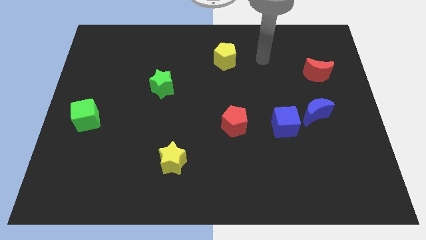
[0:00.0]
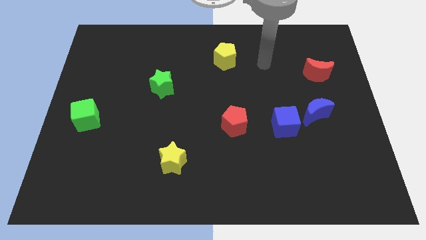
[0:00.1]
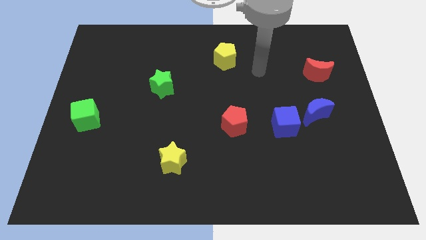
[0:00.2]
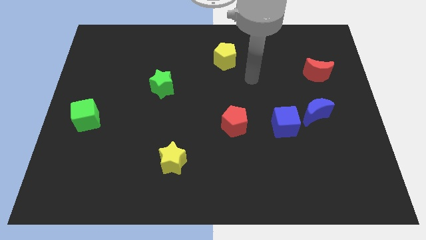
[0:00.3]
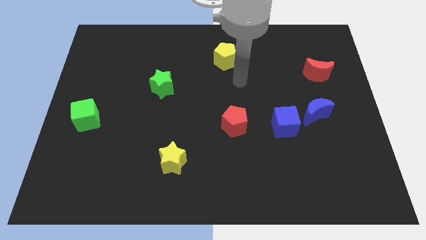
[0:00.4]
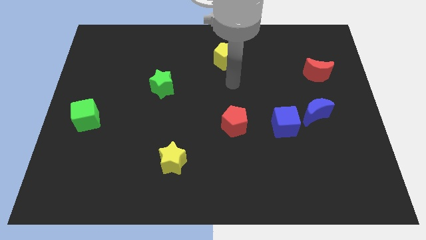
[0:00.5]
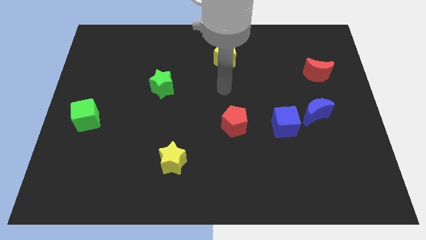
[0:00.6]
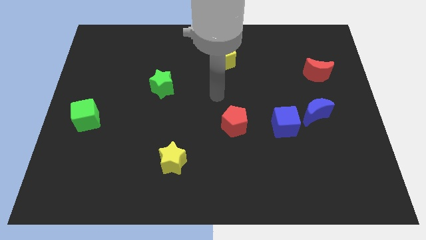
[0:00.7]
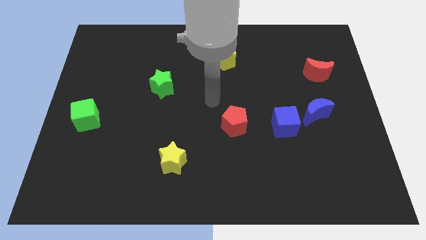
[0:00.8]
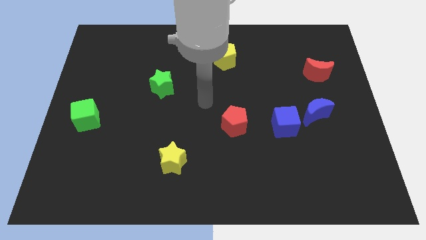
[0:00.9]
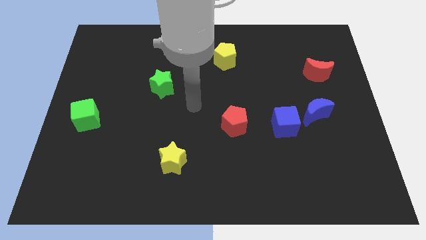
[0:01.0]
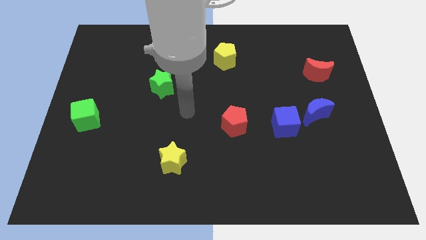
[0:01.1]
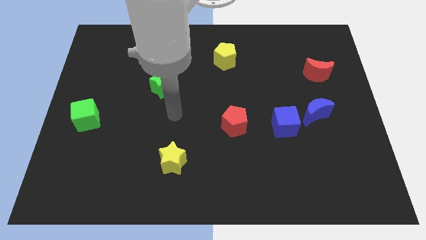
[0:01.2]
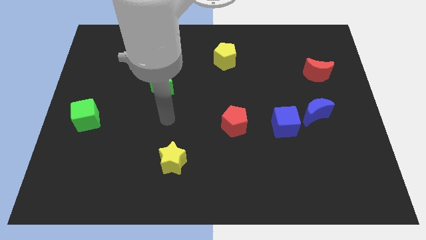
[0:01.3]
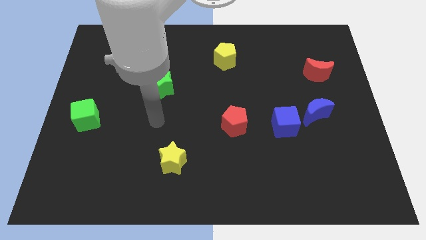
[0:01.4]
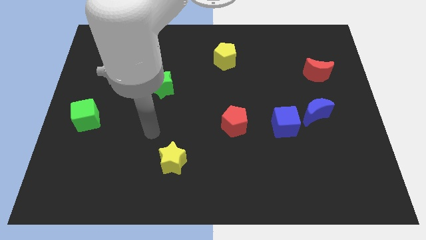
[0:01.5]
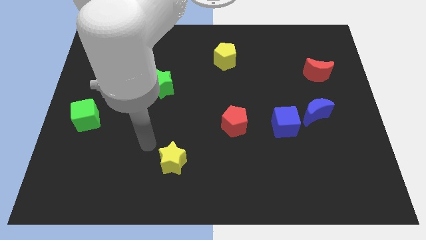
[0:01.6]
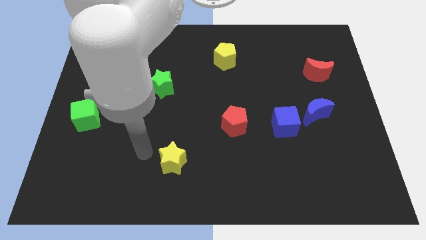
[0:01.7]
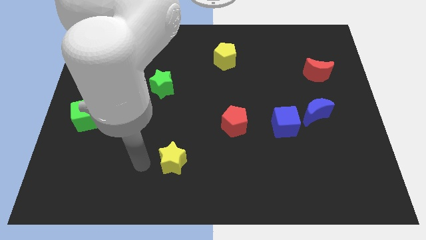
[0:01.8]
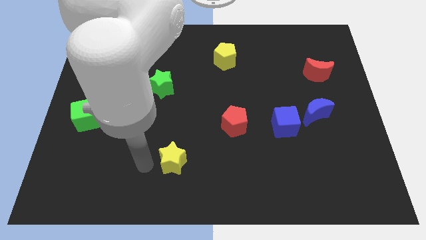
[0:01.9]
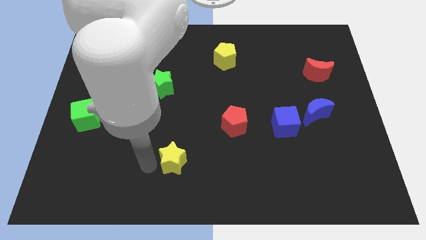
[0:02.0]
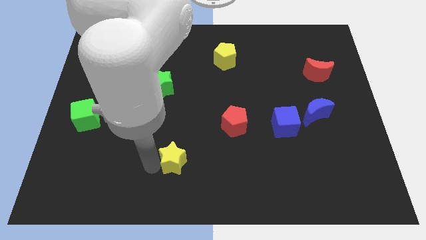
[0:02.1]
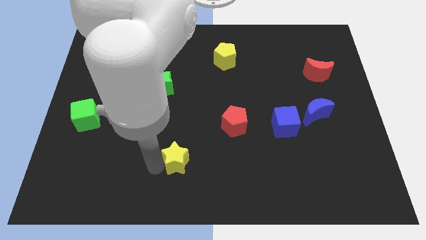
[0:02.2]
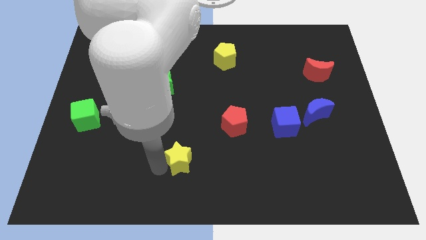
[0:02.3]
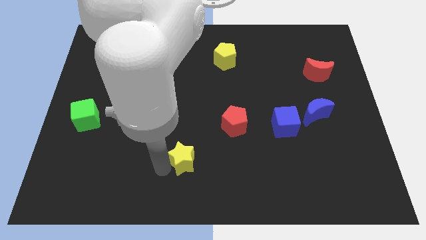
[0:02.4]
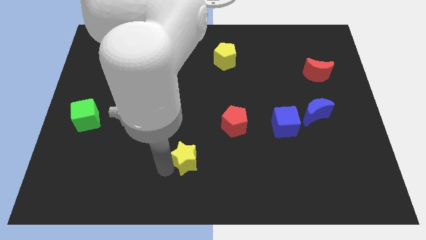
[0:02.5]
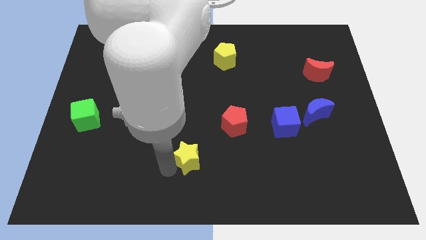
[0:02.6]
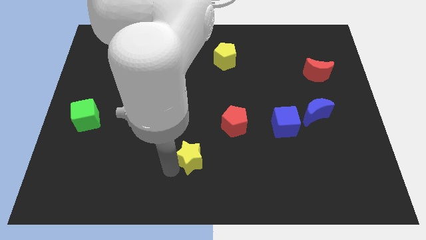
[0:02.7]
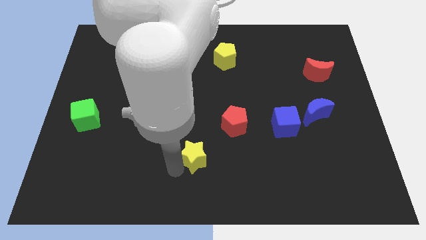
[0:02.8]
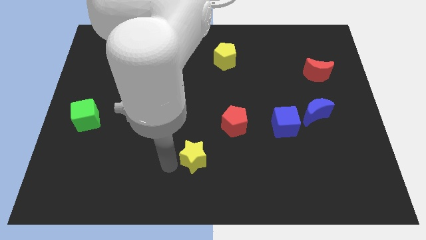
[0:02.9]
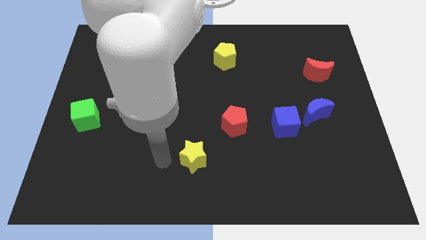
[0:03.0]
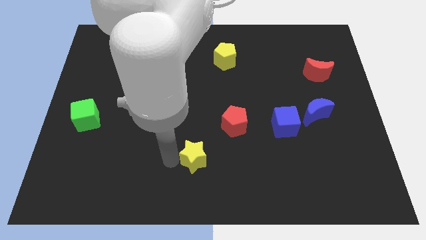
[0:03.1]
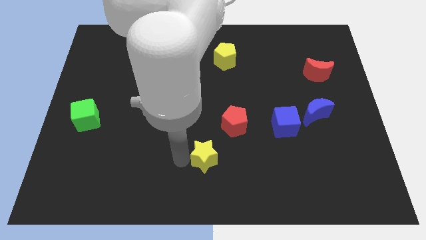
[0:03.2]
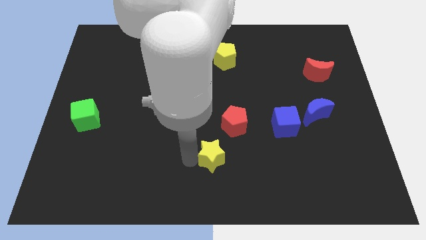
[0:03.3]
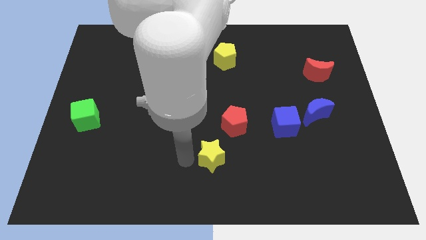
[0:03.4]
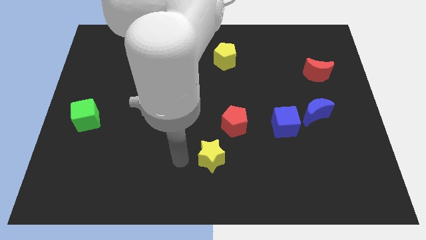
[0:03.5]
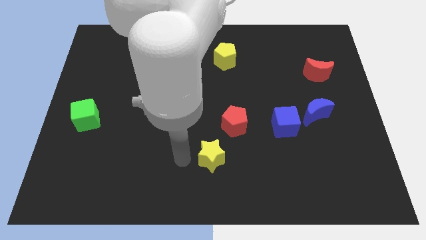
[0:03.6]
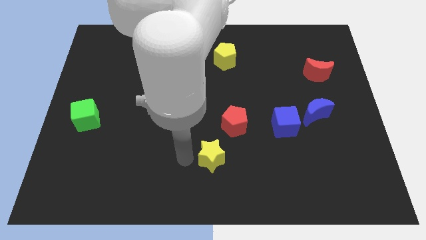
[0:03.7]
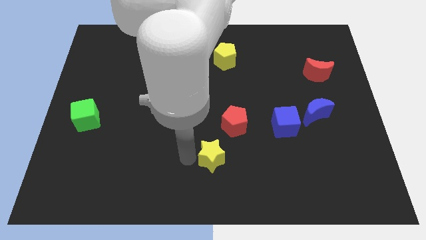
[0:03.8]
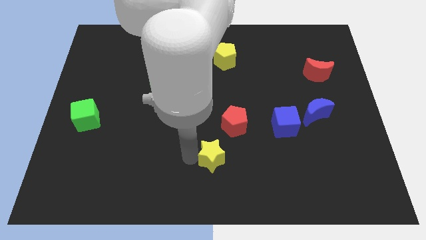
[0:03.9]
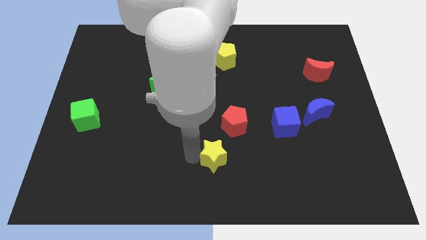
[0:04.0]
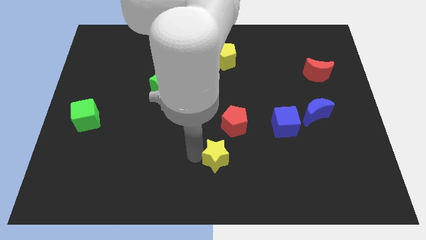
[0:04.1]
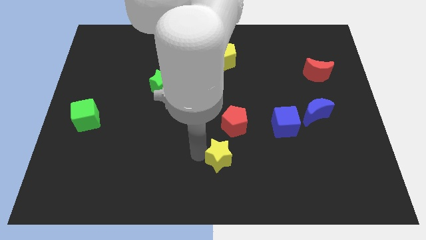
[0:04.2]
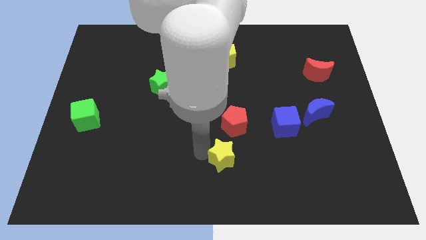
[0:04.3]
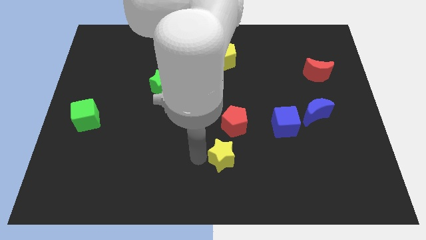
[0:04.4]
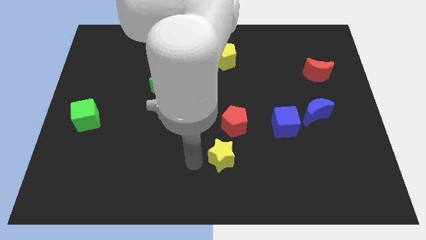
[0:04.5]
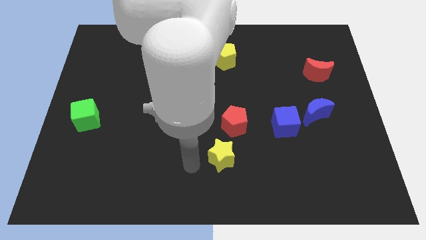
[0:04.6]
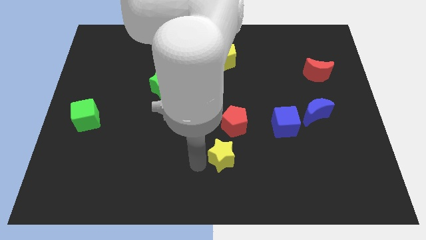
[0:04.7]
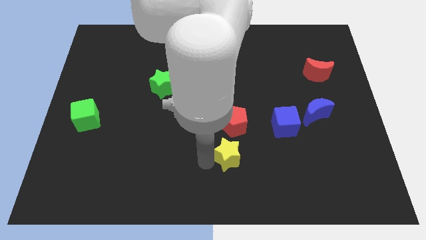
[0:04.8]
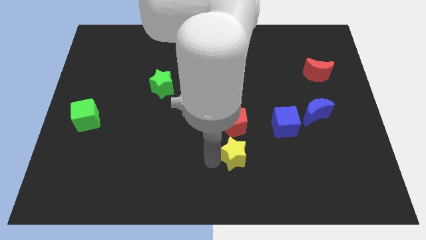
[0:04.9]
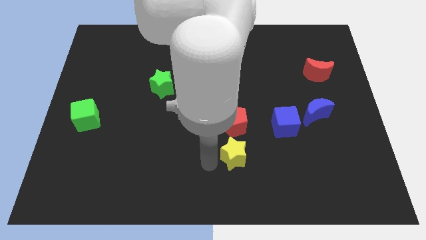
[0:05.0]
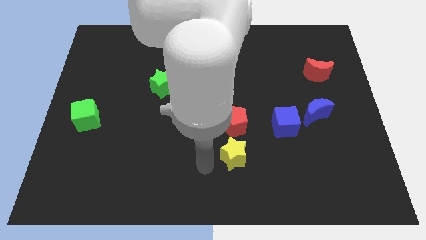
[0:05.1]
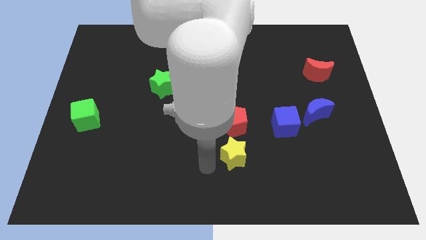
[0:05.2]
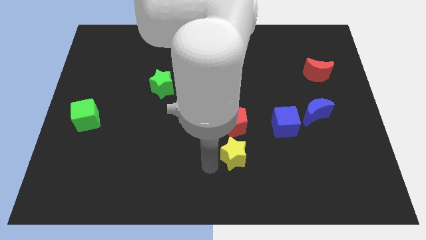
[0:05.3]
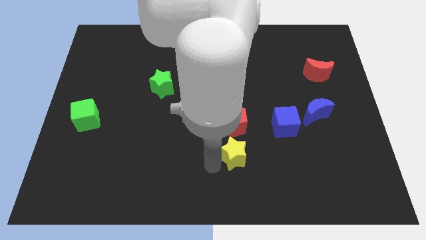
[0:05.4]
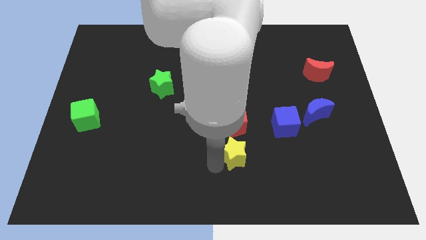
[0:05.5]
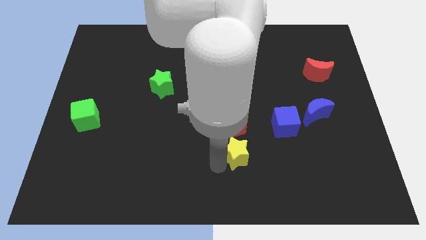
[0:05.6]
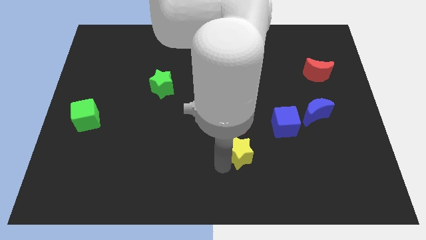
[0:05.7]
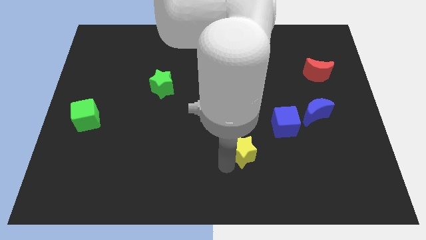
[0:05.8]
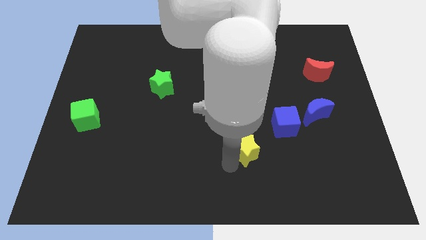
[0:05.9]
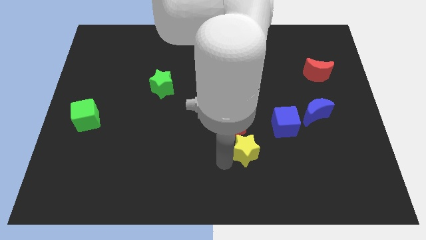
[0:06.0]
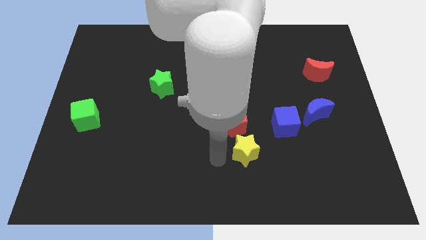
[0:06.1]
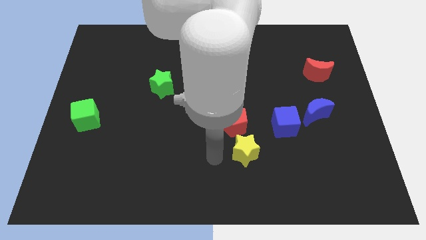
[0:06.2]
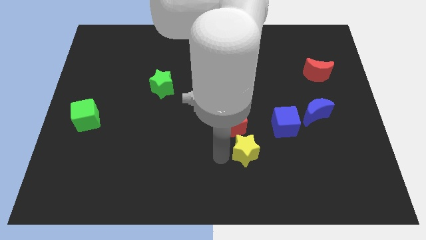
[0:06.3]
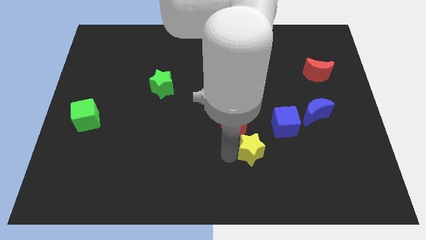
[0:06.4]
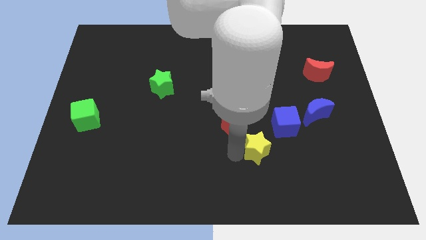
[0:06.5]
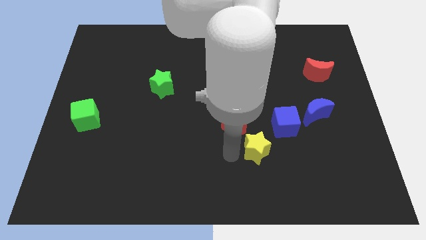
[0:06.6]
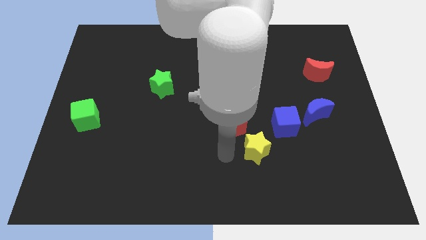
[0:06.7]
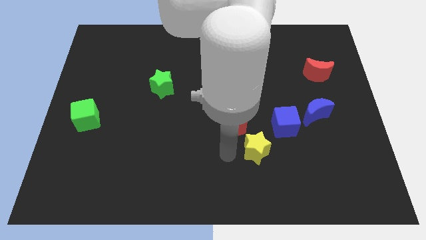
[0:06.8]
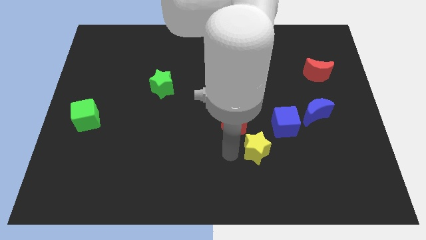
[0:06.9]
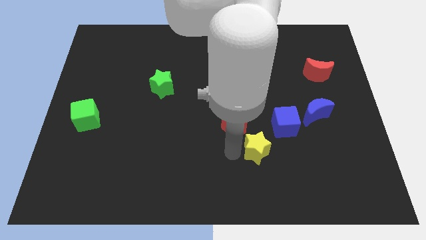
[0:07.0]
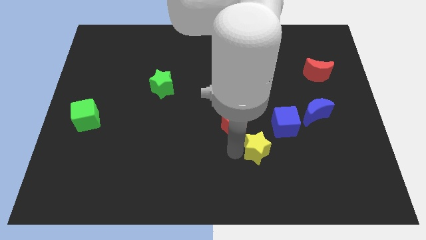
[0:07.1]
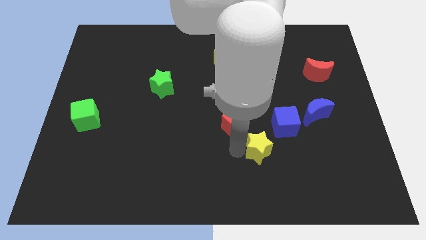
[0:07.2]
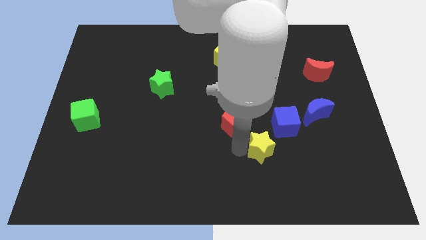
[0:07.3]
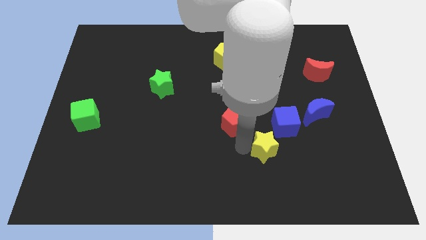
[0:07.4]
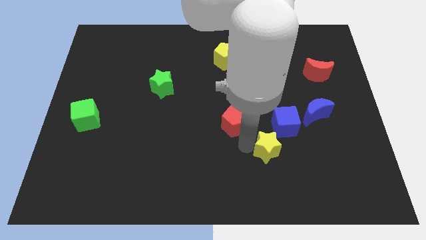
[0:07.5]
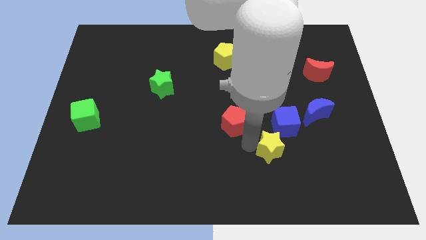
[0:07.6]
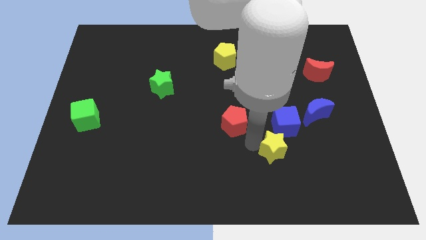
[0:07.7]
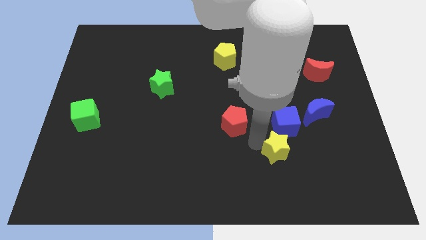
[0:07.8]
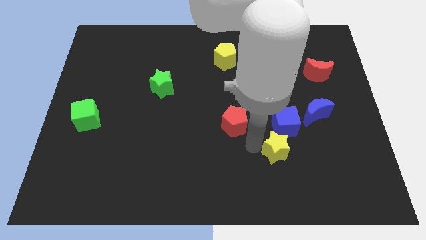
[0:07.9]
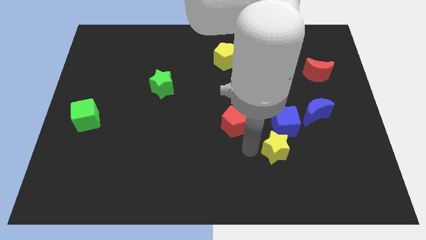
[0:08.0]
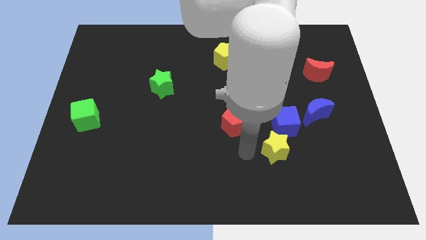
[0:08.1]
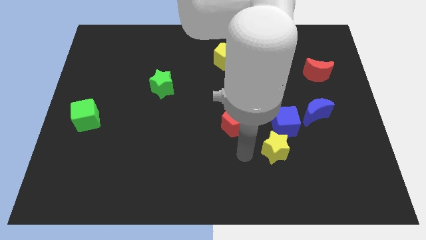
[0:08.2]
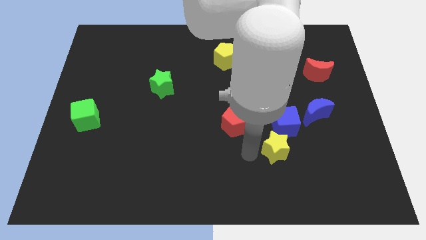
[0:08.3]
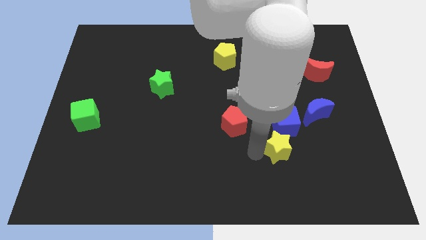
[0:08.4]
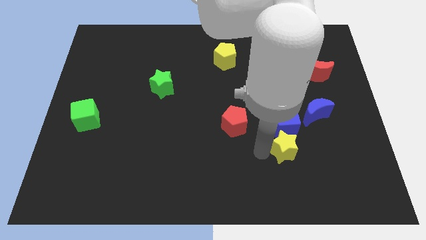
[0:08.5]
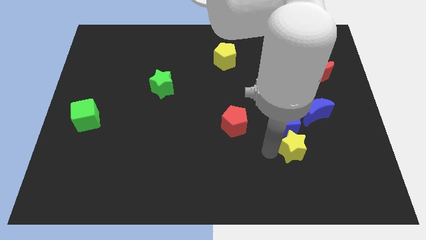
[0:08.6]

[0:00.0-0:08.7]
move the yellow star diagonally down and to the right of the blue cube
